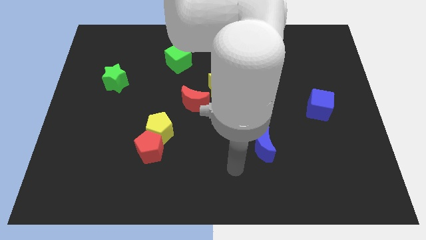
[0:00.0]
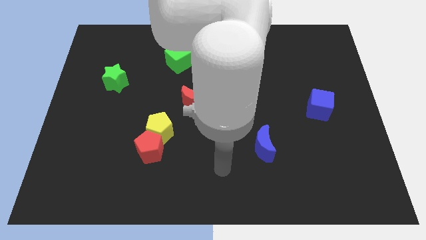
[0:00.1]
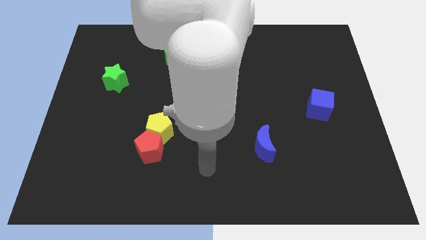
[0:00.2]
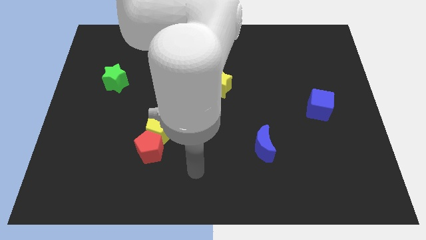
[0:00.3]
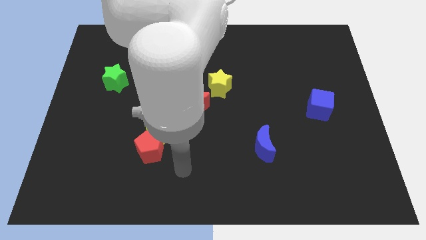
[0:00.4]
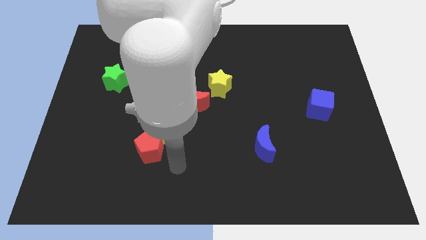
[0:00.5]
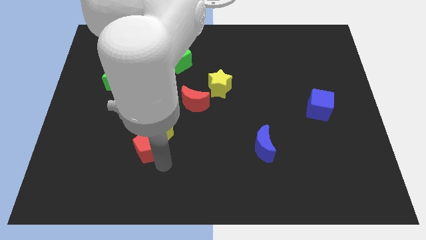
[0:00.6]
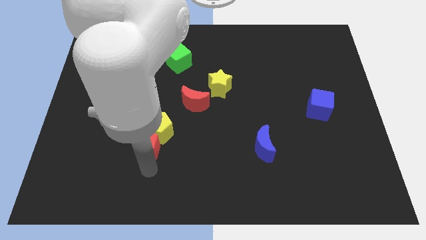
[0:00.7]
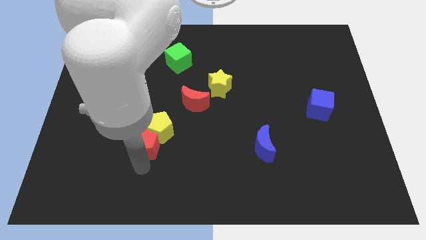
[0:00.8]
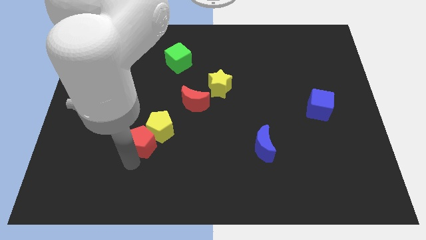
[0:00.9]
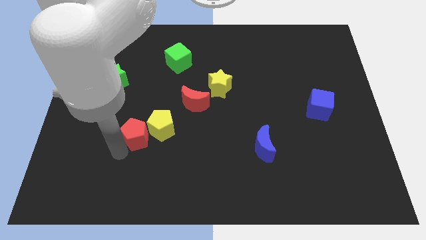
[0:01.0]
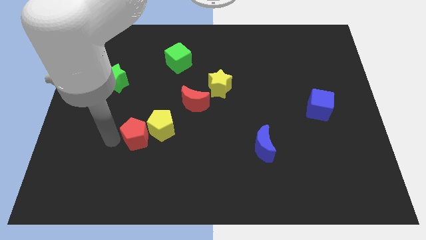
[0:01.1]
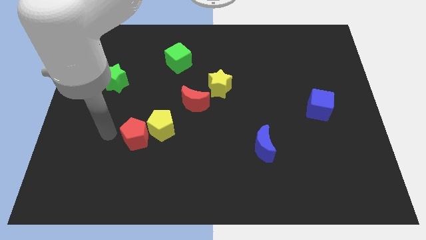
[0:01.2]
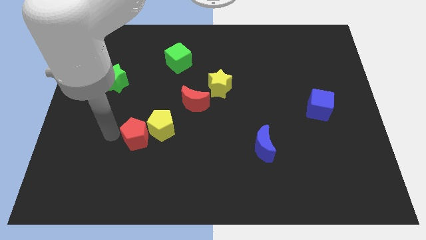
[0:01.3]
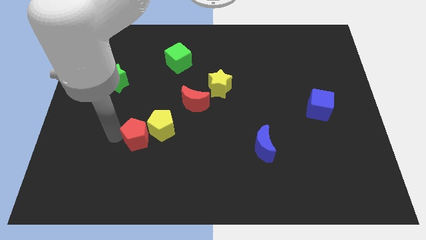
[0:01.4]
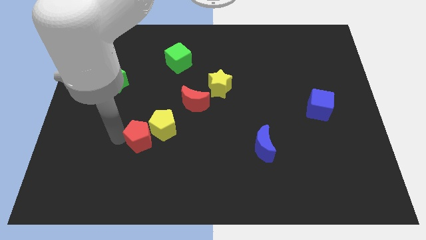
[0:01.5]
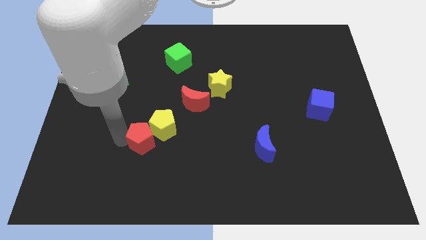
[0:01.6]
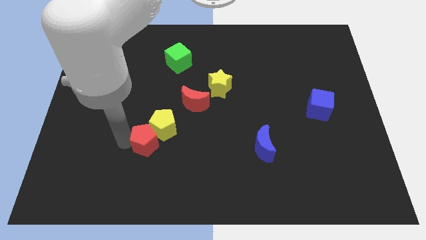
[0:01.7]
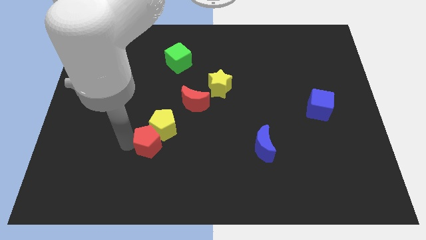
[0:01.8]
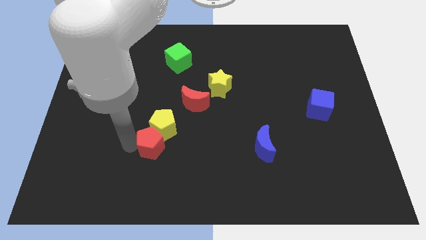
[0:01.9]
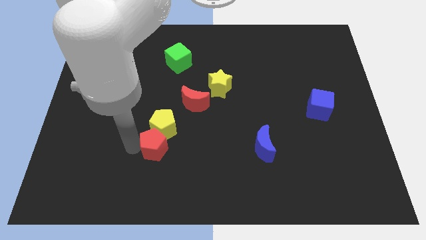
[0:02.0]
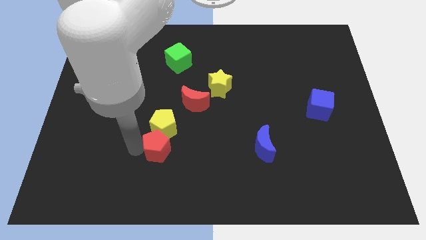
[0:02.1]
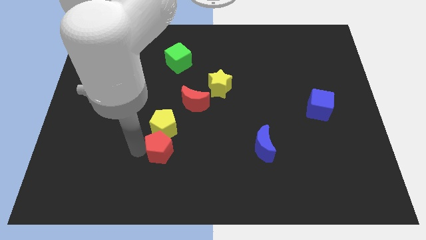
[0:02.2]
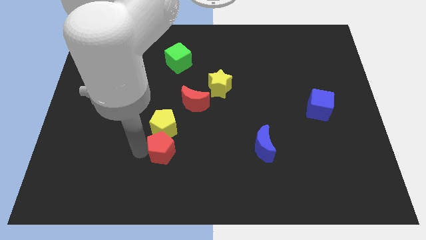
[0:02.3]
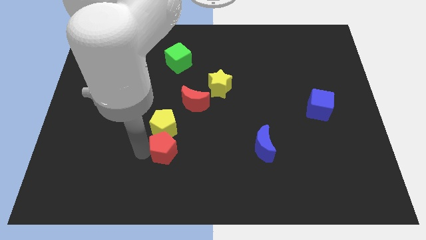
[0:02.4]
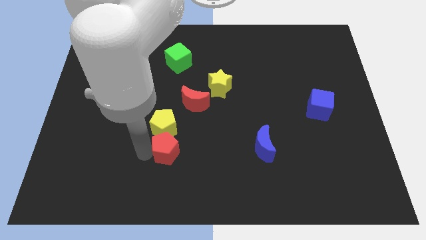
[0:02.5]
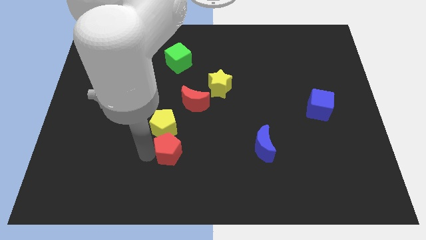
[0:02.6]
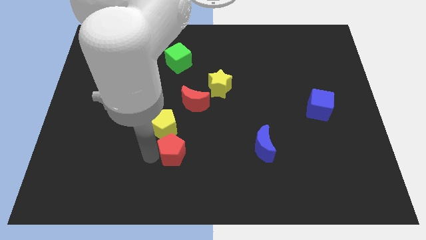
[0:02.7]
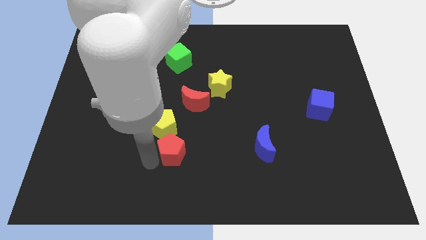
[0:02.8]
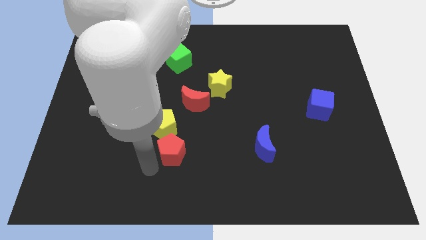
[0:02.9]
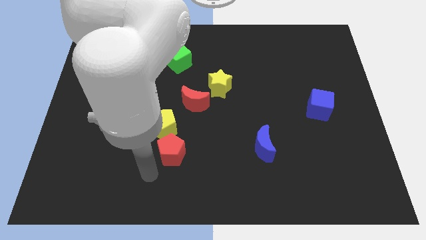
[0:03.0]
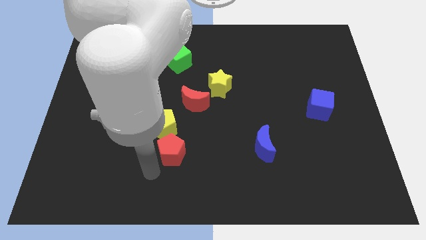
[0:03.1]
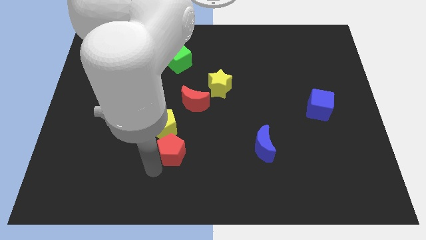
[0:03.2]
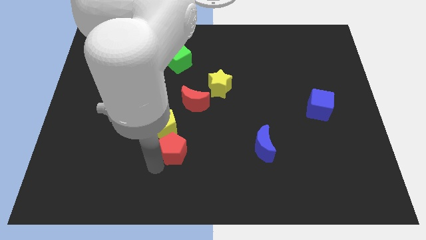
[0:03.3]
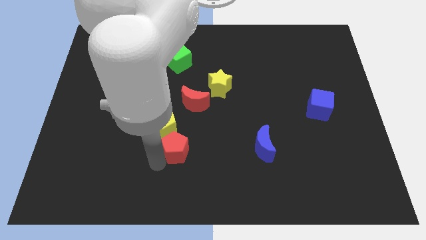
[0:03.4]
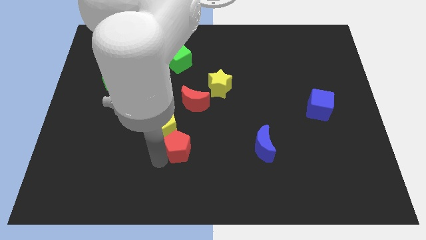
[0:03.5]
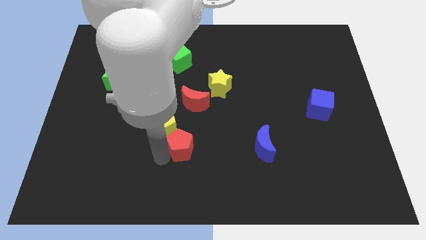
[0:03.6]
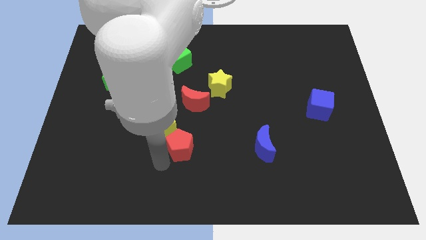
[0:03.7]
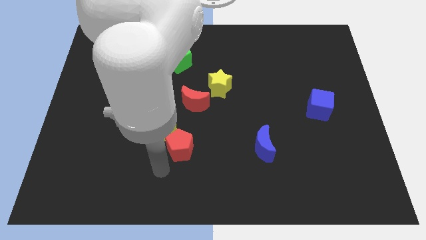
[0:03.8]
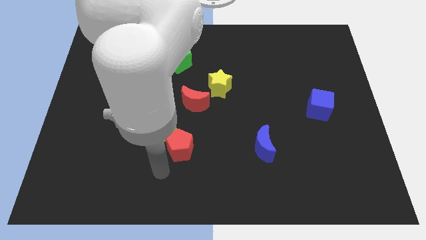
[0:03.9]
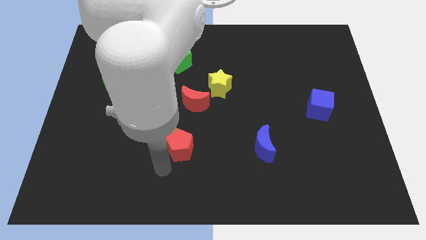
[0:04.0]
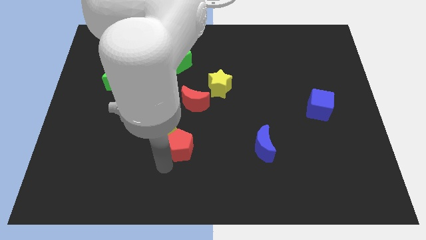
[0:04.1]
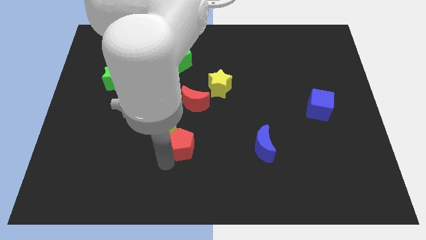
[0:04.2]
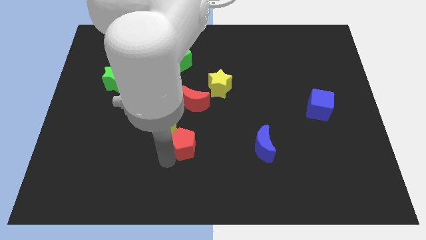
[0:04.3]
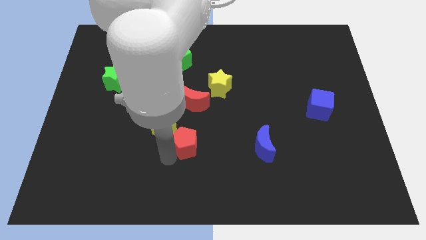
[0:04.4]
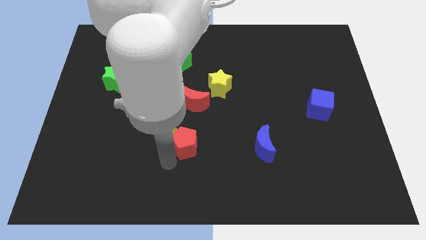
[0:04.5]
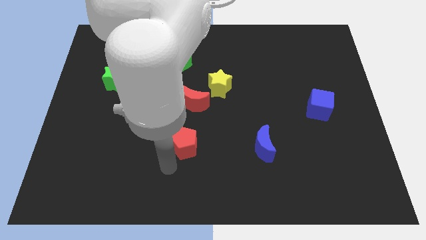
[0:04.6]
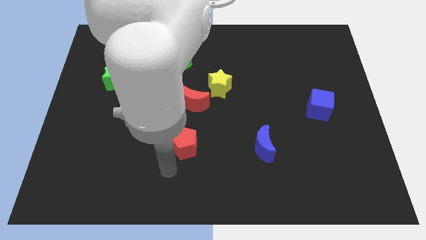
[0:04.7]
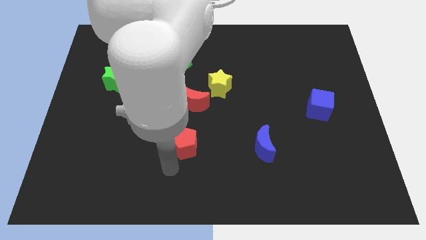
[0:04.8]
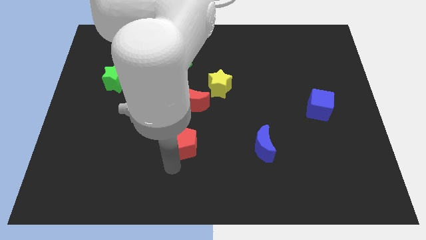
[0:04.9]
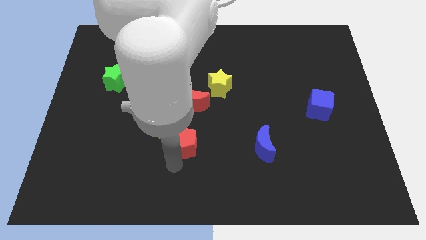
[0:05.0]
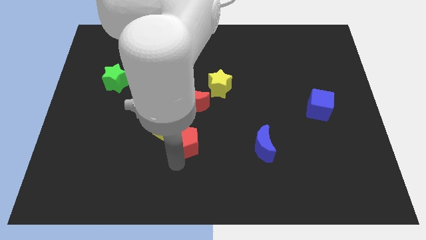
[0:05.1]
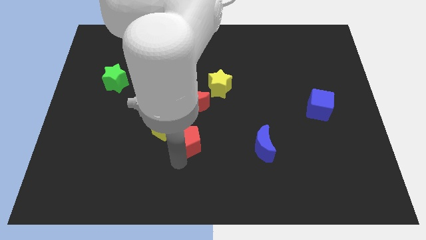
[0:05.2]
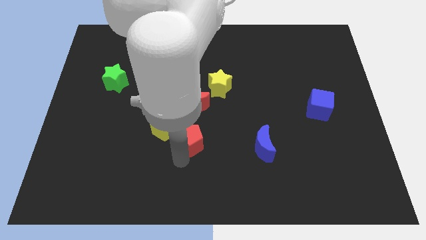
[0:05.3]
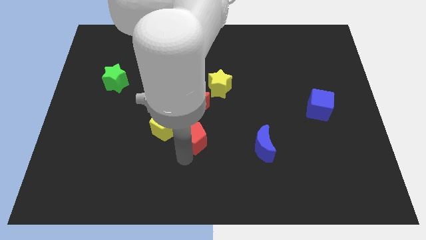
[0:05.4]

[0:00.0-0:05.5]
put the red pentagon to the center of the board

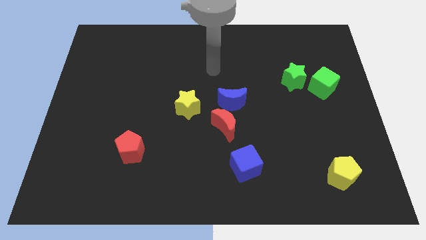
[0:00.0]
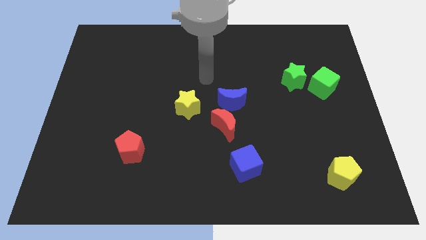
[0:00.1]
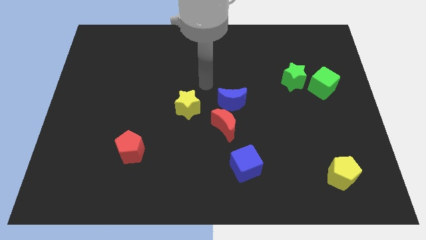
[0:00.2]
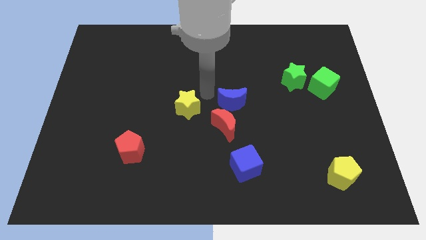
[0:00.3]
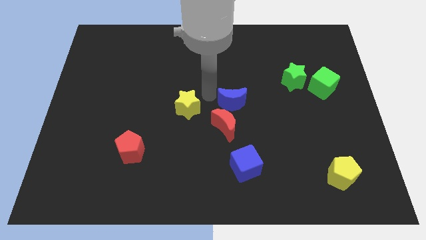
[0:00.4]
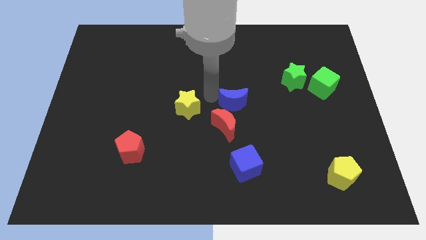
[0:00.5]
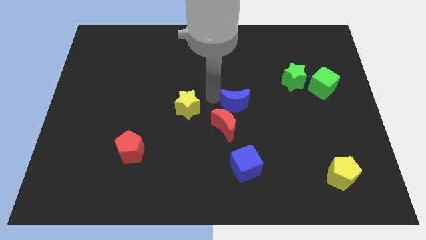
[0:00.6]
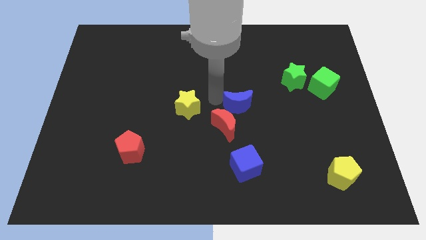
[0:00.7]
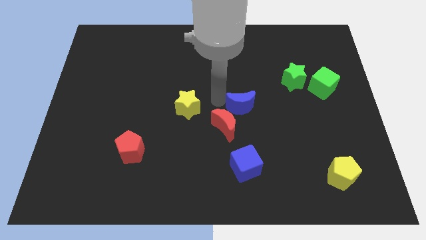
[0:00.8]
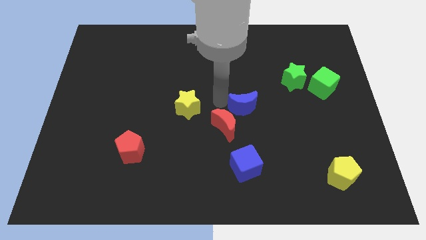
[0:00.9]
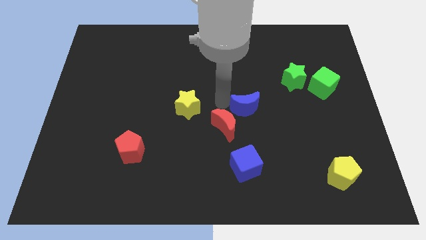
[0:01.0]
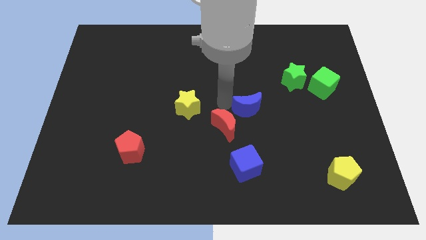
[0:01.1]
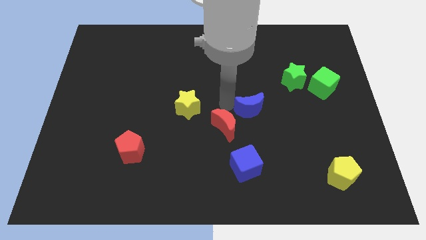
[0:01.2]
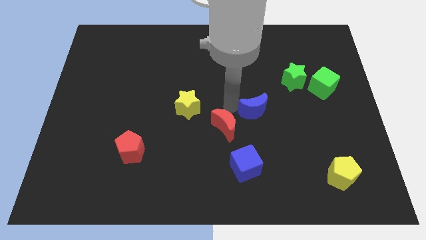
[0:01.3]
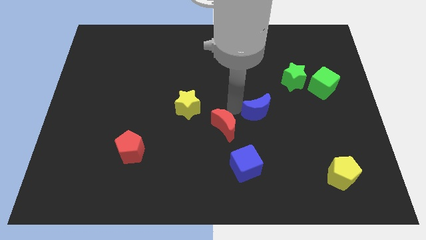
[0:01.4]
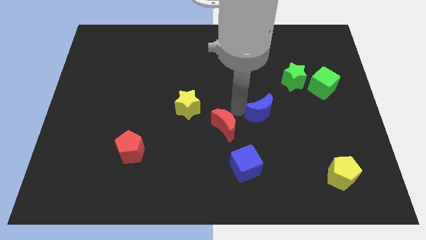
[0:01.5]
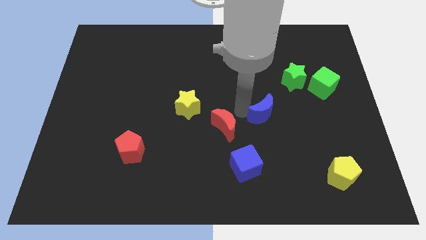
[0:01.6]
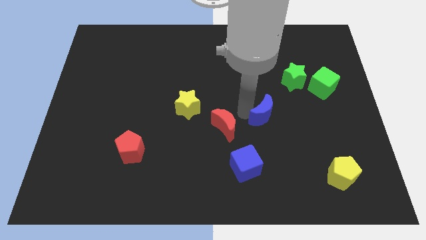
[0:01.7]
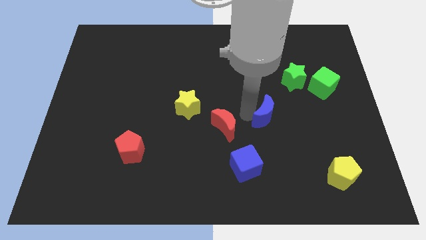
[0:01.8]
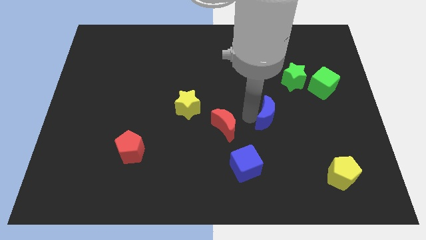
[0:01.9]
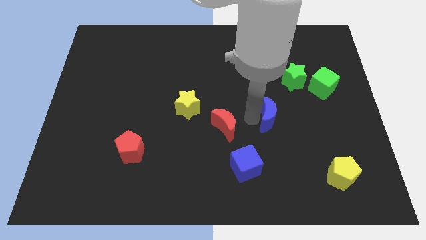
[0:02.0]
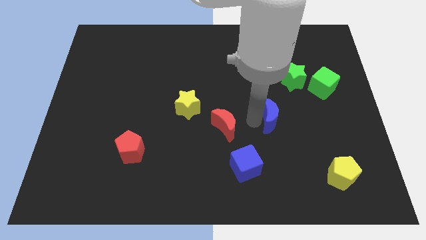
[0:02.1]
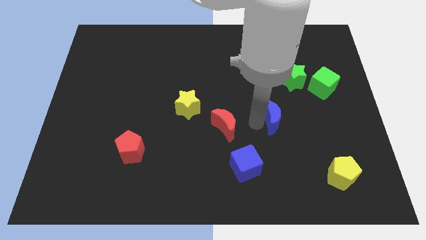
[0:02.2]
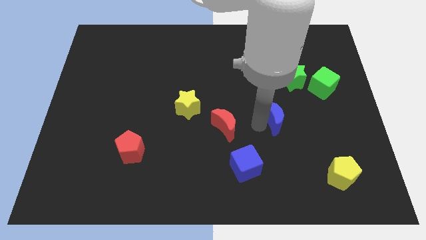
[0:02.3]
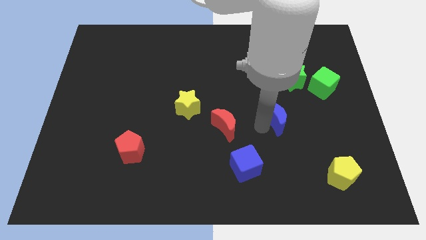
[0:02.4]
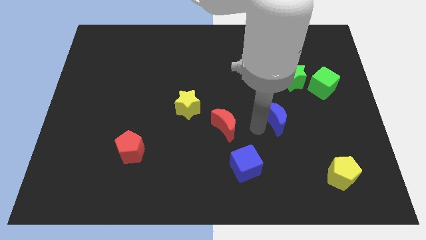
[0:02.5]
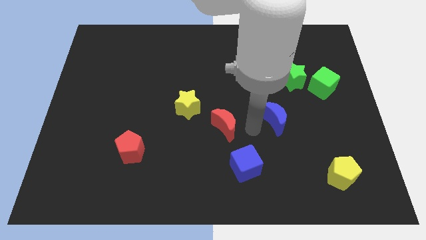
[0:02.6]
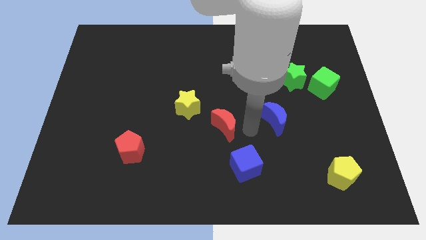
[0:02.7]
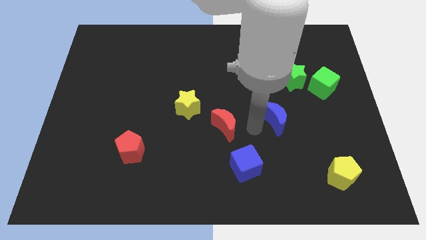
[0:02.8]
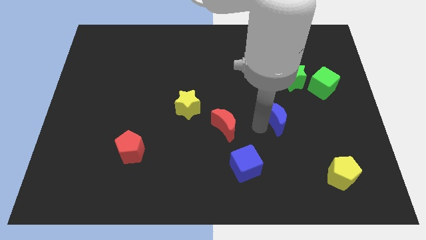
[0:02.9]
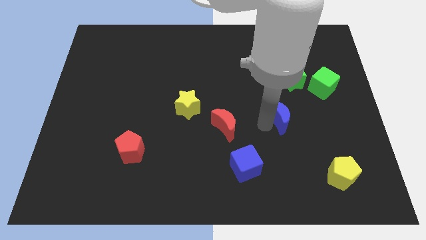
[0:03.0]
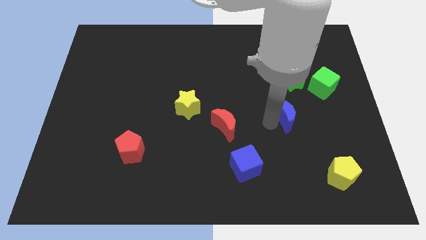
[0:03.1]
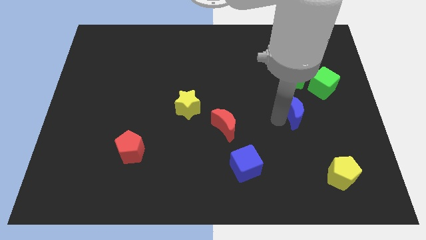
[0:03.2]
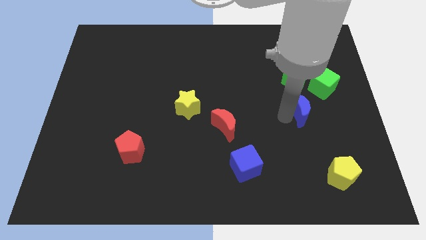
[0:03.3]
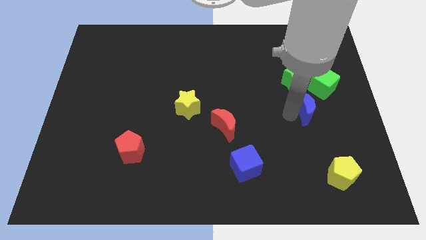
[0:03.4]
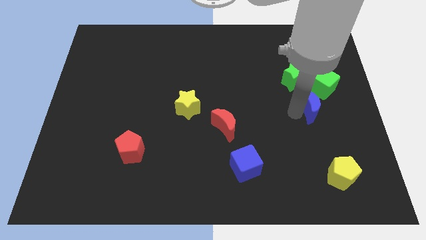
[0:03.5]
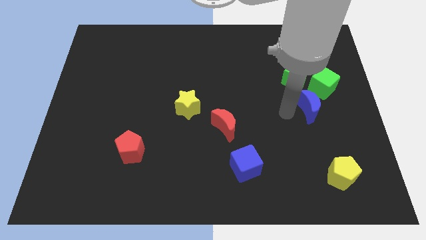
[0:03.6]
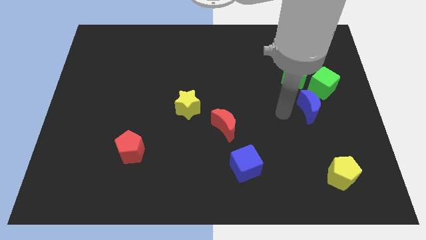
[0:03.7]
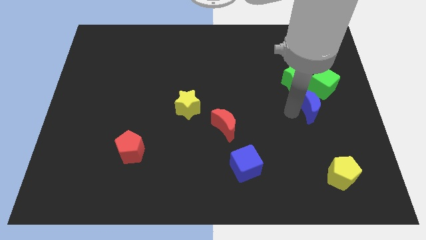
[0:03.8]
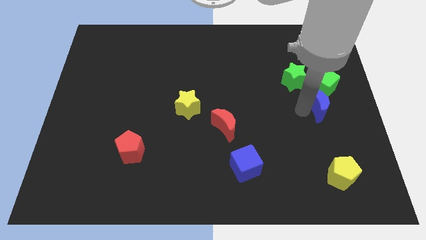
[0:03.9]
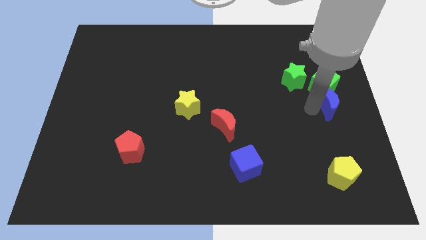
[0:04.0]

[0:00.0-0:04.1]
slide the blue moon to the right side of the board
